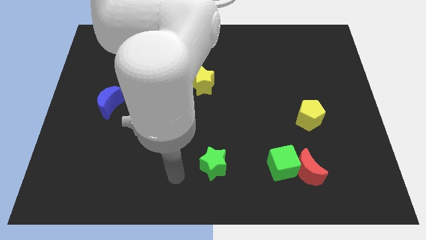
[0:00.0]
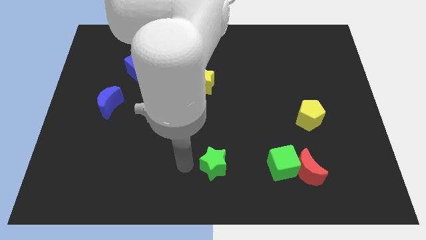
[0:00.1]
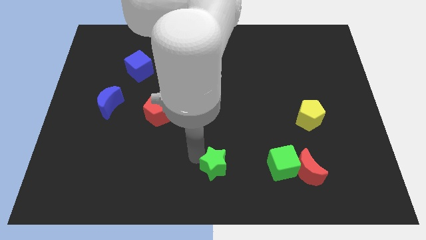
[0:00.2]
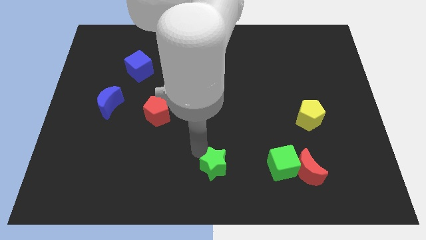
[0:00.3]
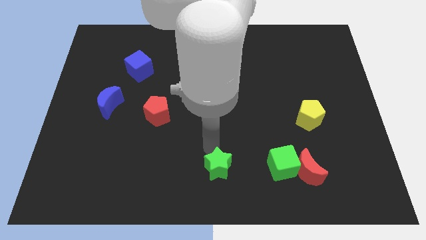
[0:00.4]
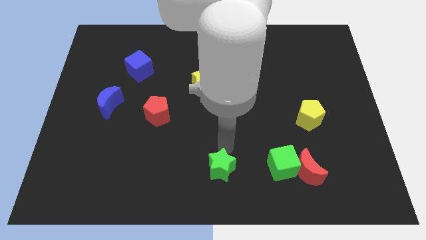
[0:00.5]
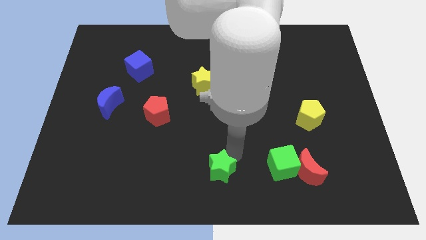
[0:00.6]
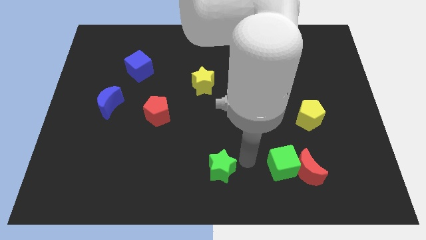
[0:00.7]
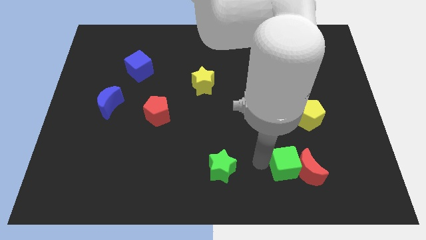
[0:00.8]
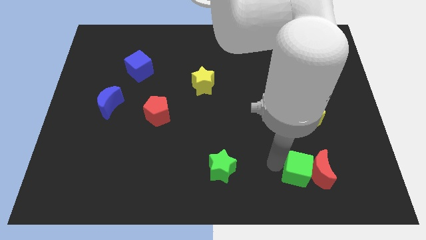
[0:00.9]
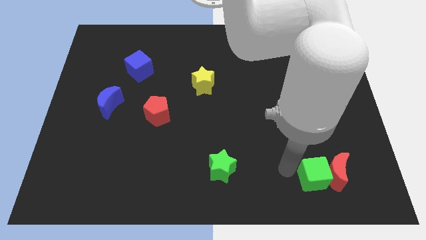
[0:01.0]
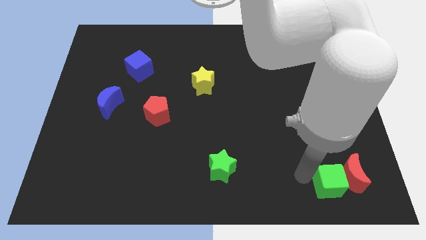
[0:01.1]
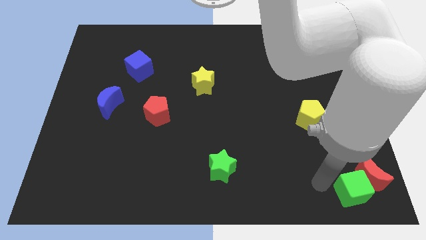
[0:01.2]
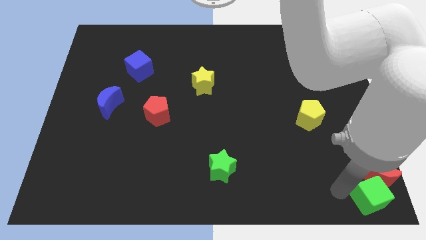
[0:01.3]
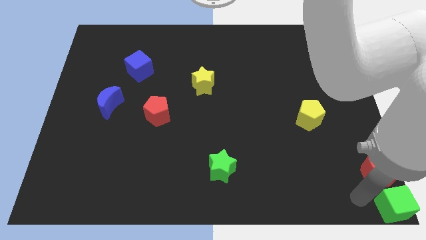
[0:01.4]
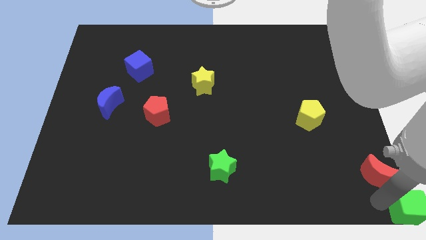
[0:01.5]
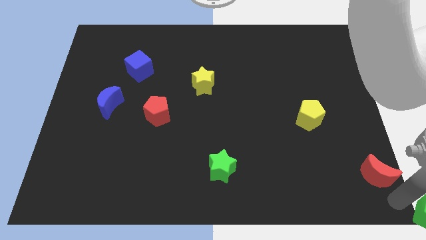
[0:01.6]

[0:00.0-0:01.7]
move the red moon away from the green cube

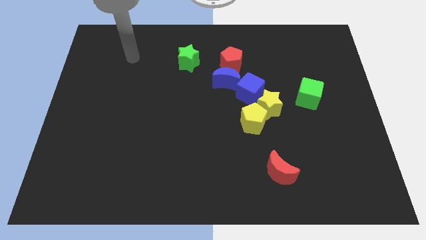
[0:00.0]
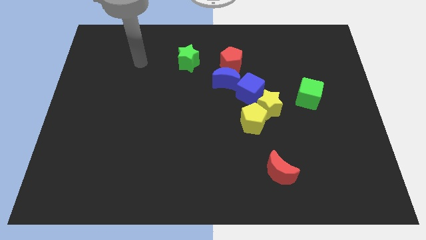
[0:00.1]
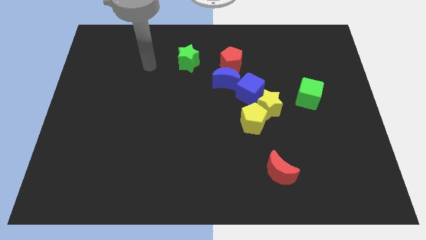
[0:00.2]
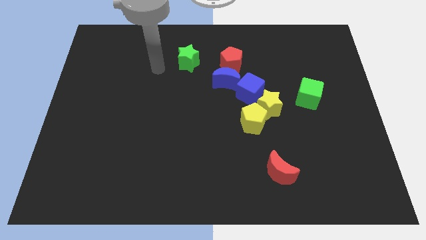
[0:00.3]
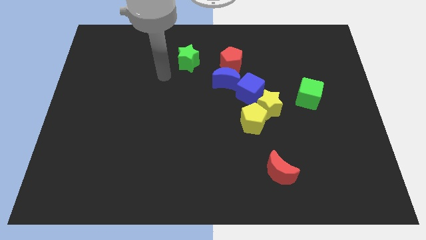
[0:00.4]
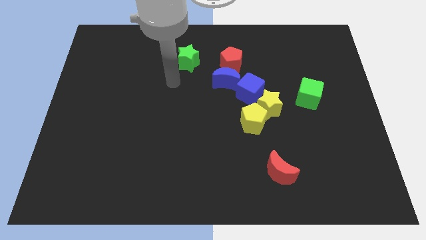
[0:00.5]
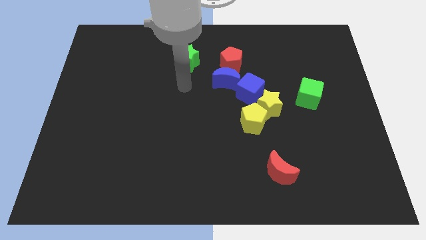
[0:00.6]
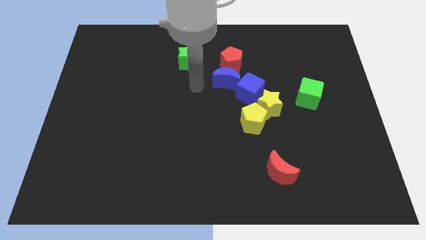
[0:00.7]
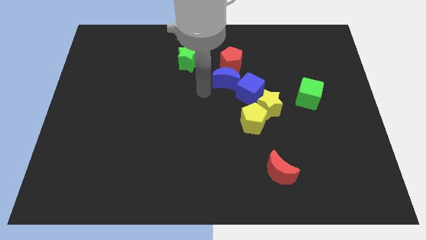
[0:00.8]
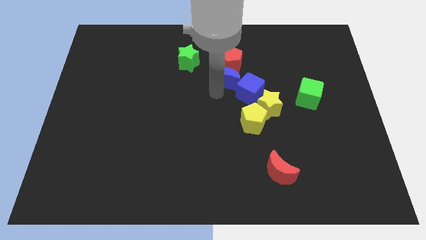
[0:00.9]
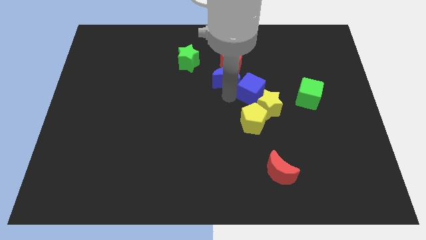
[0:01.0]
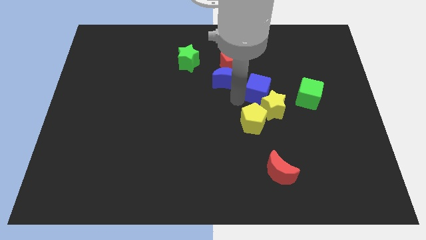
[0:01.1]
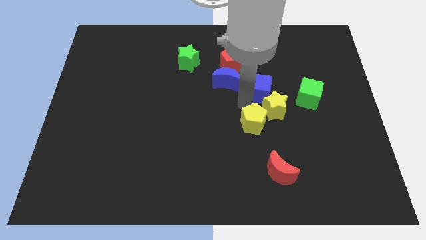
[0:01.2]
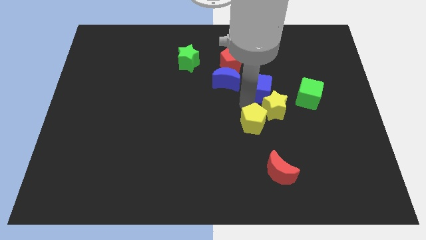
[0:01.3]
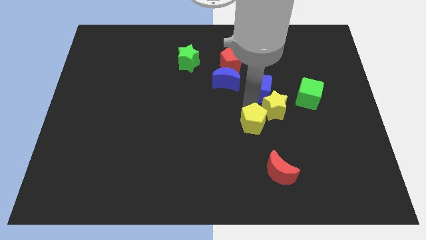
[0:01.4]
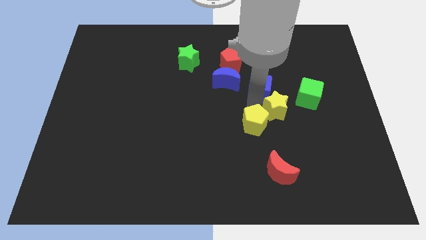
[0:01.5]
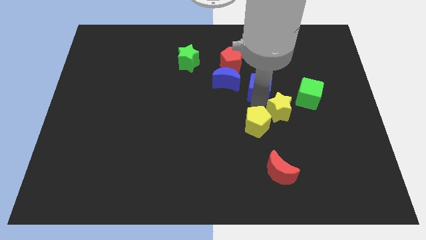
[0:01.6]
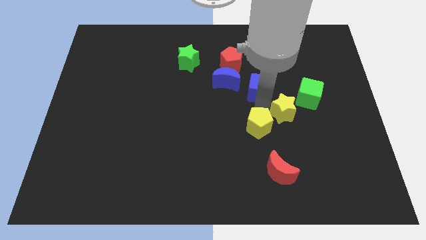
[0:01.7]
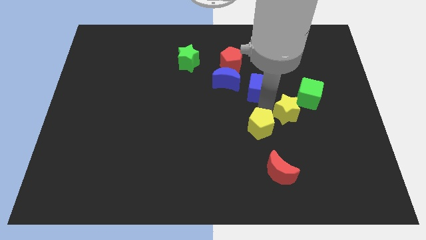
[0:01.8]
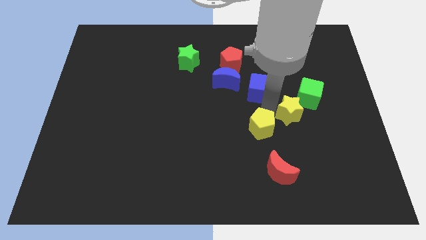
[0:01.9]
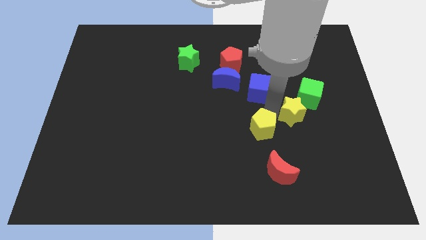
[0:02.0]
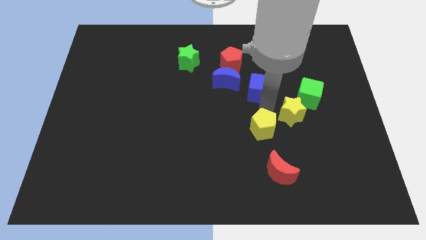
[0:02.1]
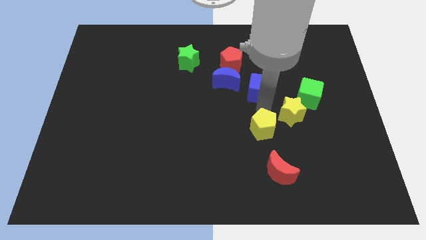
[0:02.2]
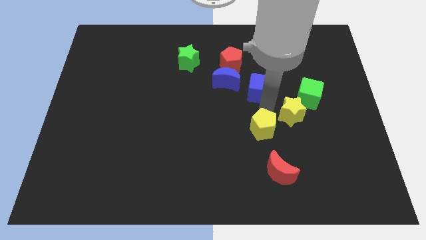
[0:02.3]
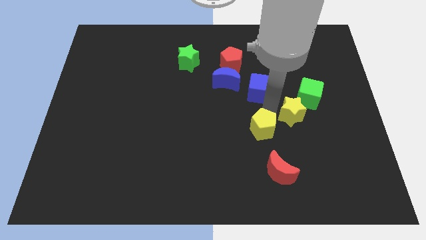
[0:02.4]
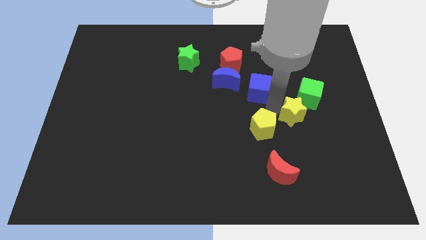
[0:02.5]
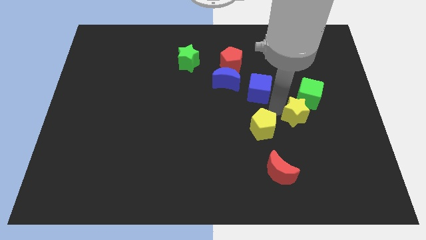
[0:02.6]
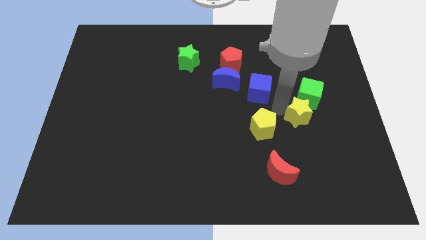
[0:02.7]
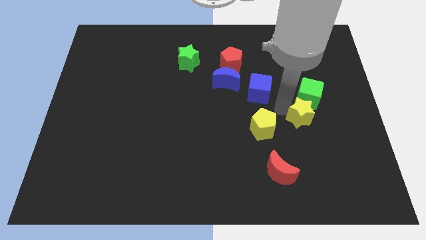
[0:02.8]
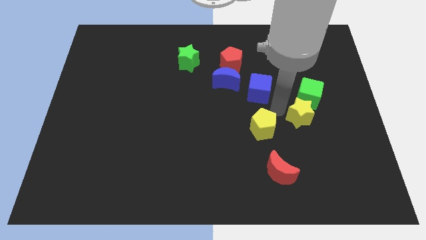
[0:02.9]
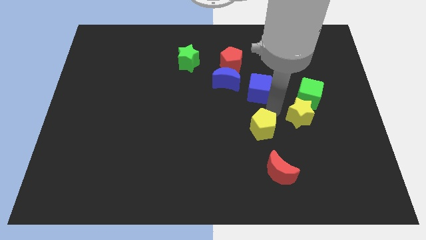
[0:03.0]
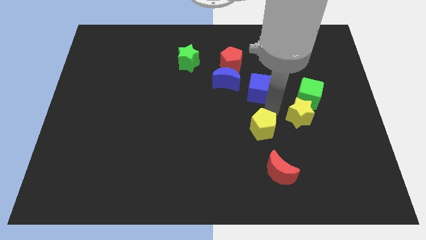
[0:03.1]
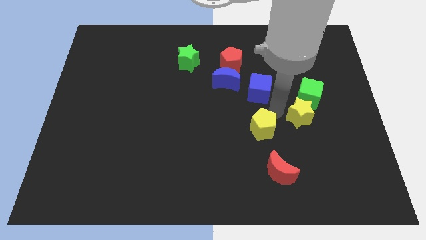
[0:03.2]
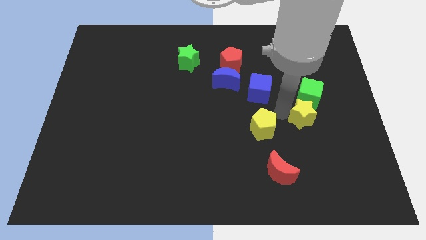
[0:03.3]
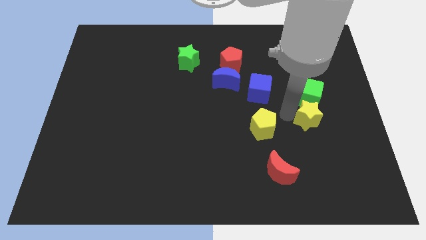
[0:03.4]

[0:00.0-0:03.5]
separate the yellow star from the yellow pentagon and blue cube

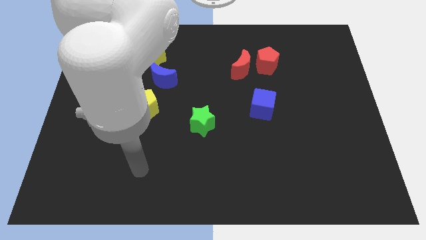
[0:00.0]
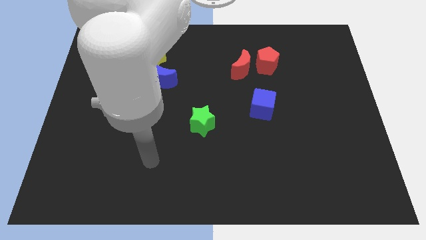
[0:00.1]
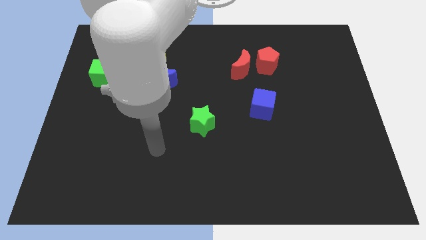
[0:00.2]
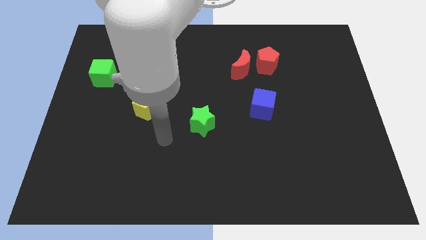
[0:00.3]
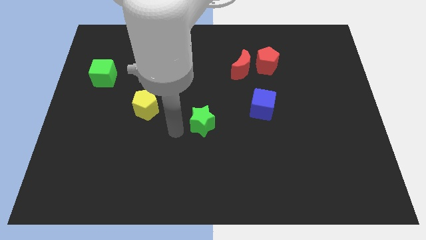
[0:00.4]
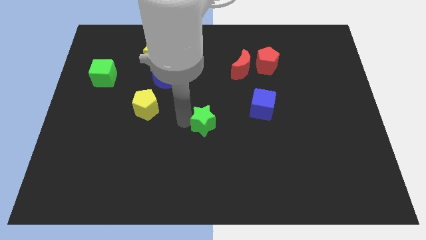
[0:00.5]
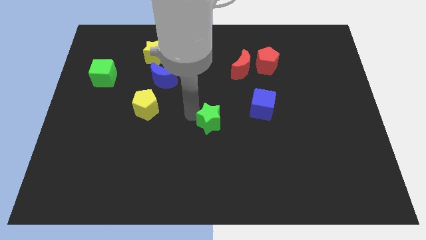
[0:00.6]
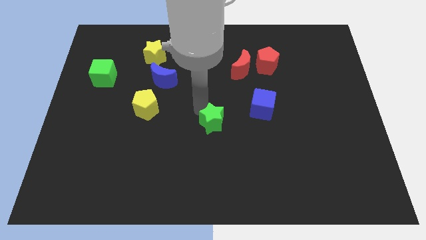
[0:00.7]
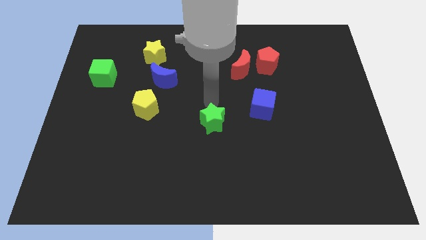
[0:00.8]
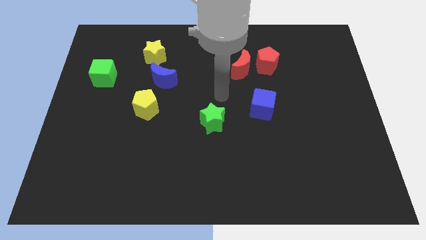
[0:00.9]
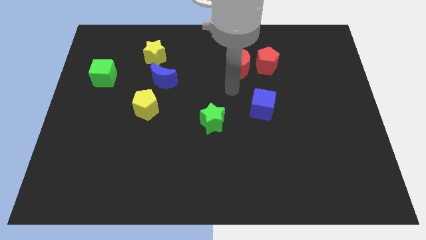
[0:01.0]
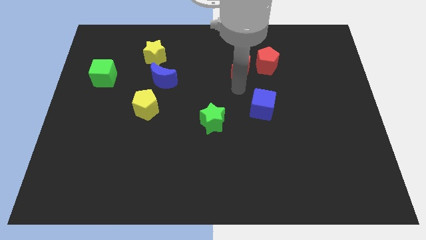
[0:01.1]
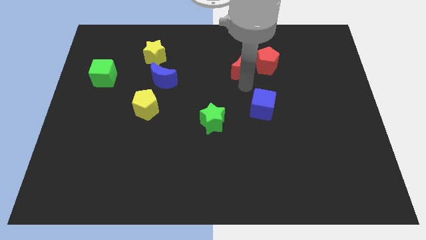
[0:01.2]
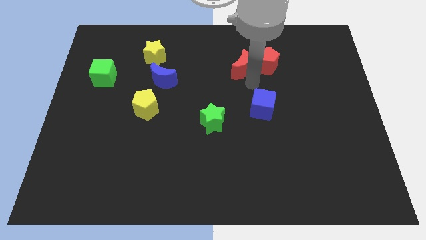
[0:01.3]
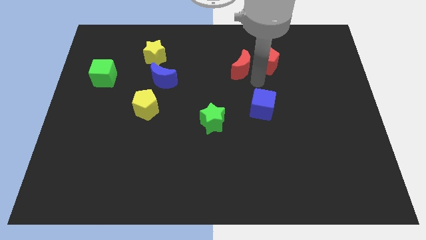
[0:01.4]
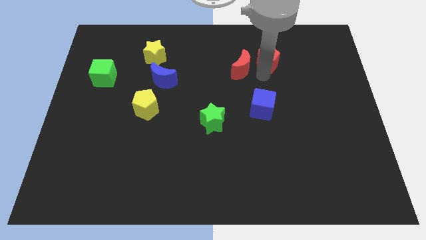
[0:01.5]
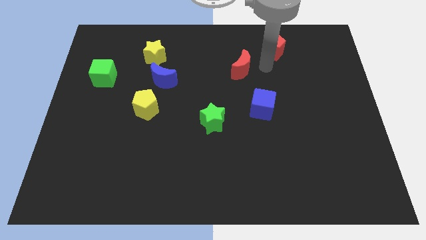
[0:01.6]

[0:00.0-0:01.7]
pull the red moon apart from the red pentagon

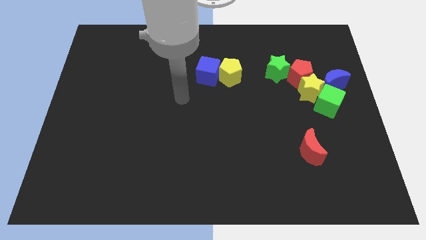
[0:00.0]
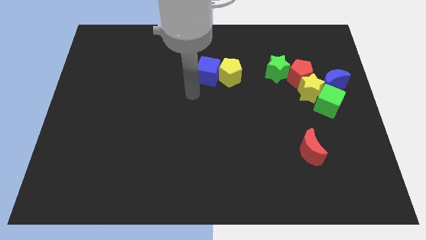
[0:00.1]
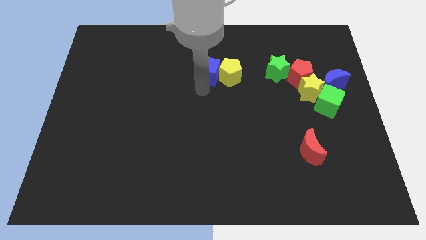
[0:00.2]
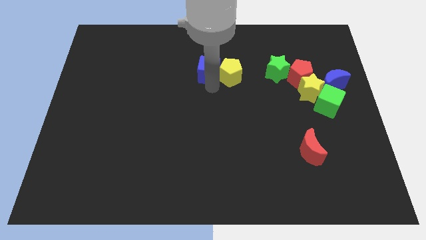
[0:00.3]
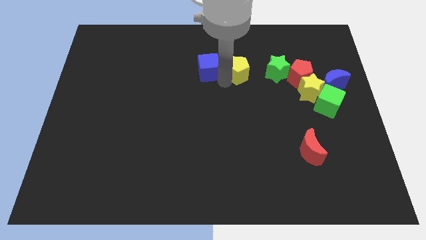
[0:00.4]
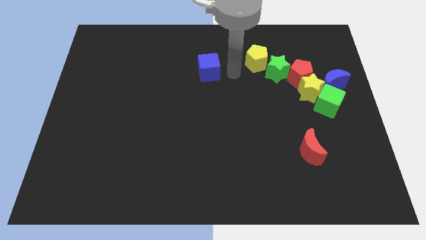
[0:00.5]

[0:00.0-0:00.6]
pull the blue cube apart from the yellow pentagon

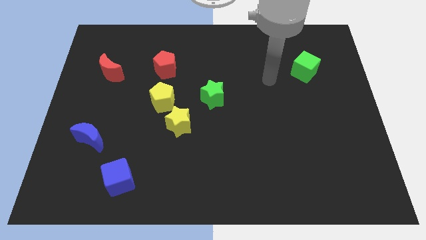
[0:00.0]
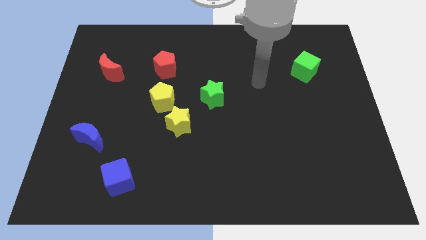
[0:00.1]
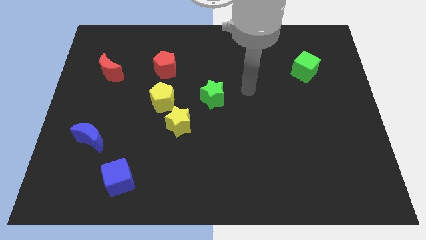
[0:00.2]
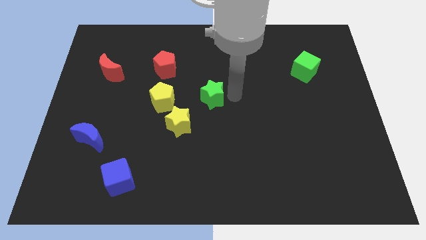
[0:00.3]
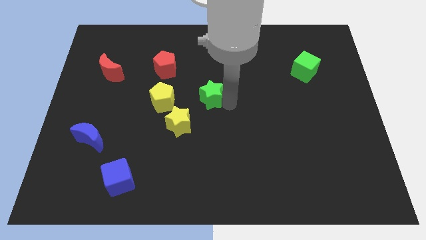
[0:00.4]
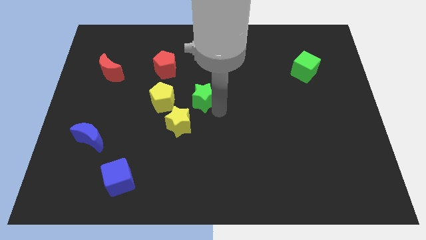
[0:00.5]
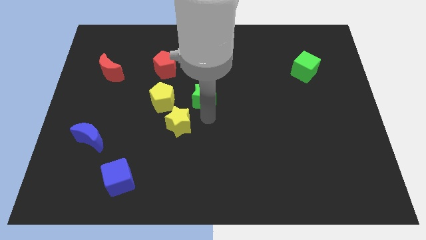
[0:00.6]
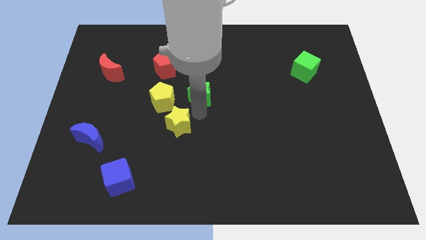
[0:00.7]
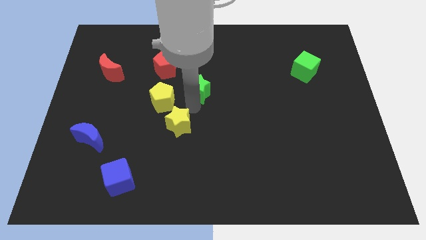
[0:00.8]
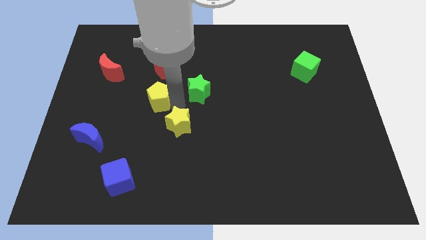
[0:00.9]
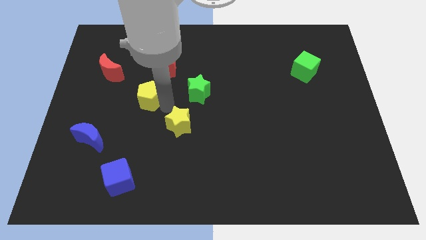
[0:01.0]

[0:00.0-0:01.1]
move the yellow star away from the yellow pentagon

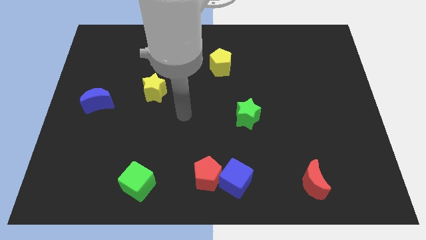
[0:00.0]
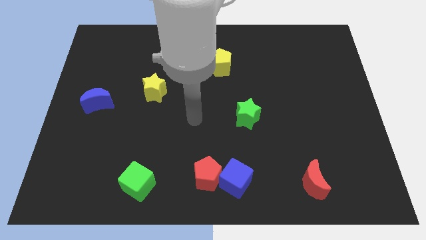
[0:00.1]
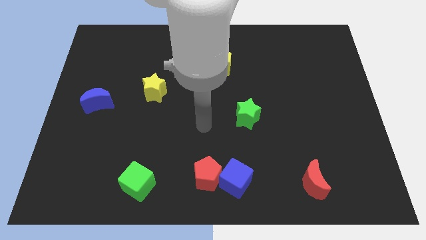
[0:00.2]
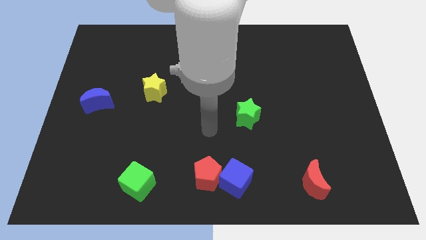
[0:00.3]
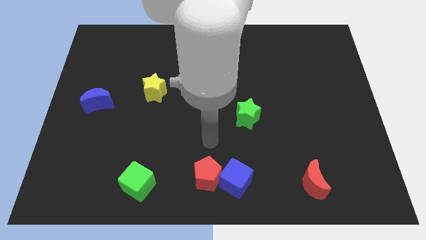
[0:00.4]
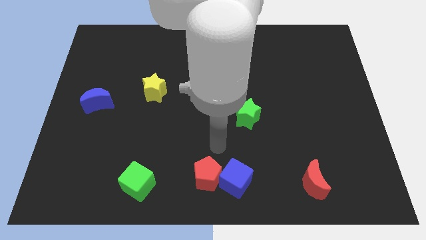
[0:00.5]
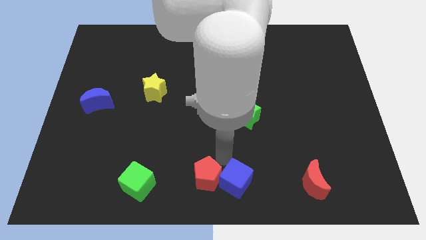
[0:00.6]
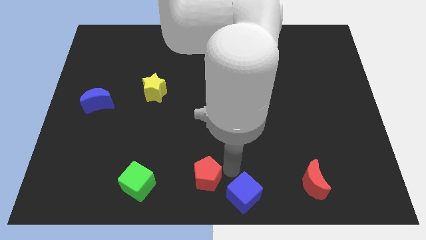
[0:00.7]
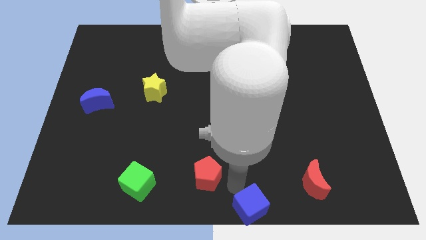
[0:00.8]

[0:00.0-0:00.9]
separate the red pentagon from the blue cube
